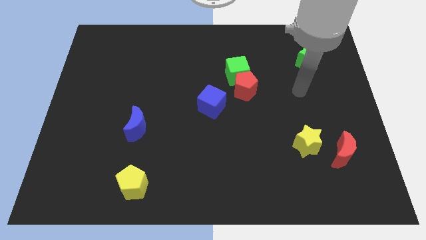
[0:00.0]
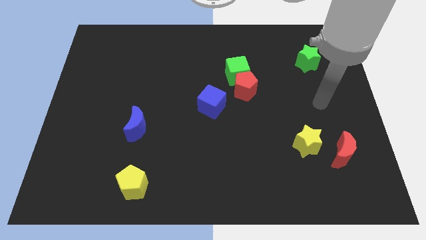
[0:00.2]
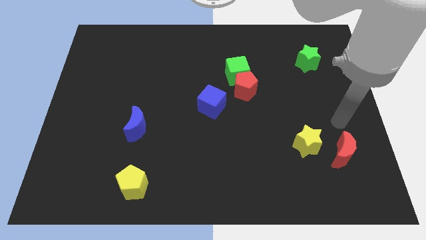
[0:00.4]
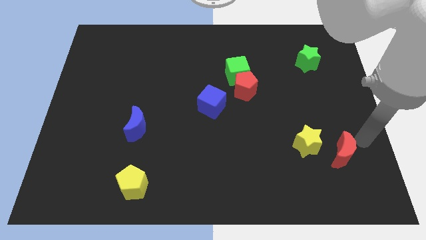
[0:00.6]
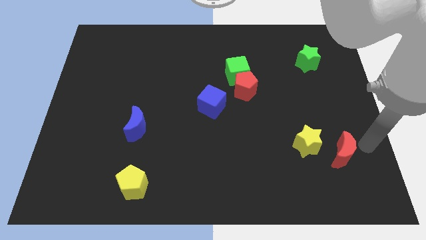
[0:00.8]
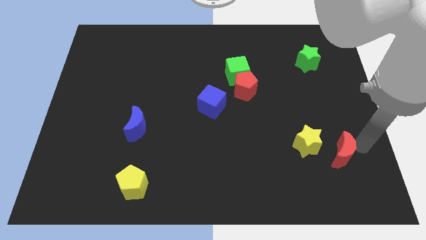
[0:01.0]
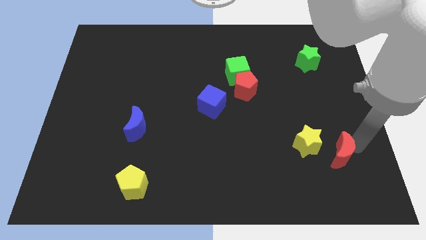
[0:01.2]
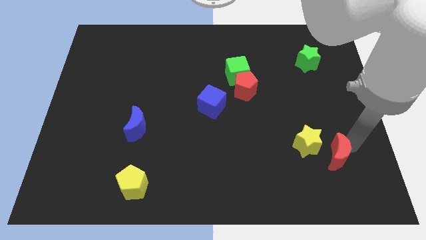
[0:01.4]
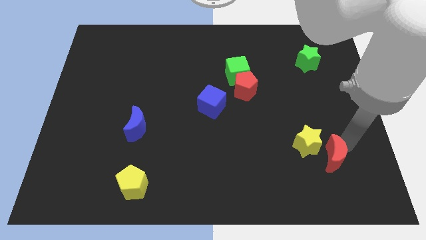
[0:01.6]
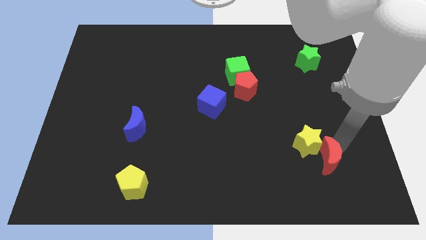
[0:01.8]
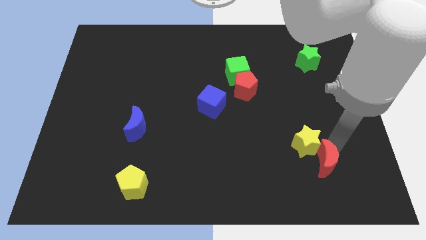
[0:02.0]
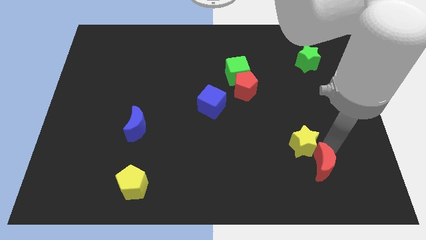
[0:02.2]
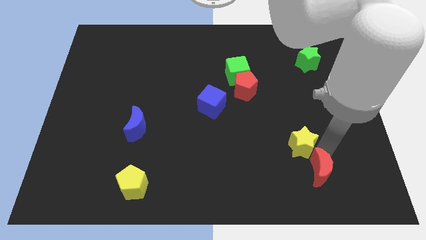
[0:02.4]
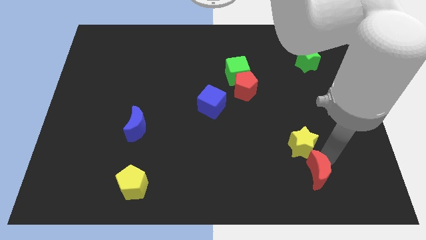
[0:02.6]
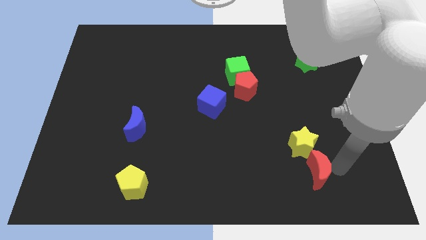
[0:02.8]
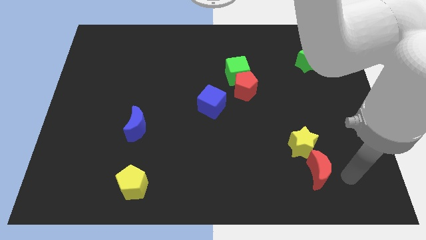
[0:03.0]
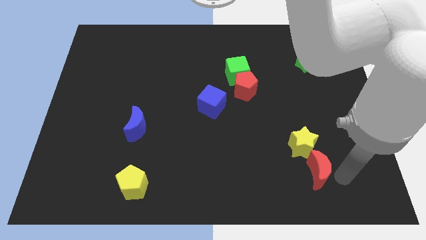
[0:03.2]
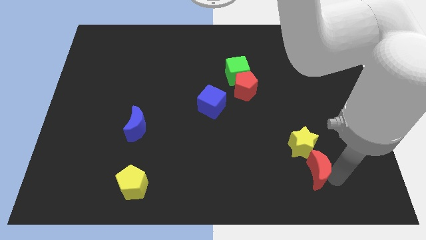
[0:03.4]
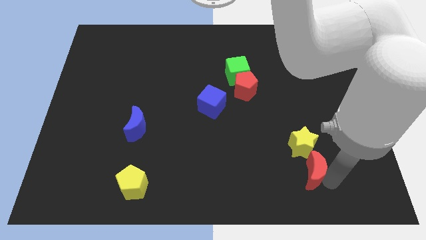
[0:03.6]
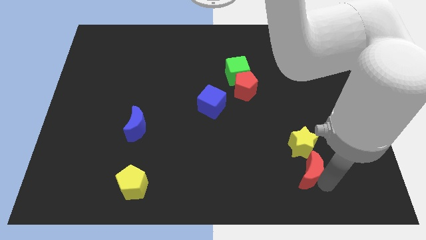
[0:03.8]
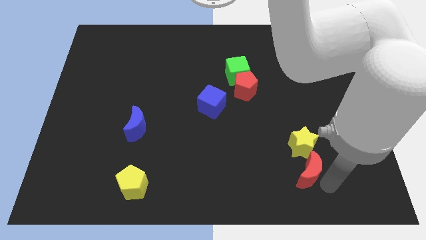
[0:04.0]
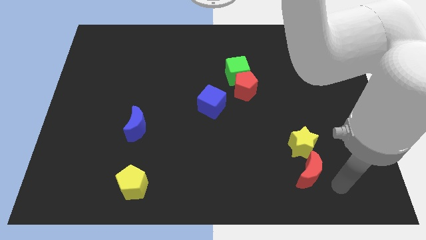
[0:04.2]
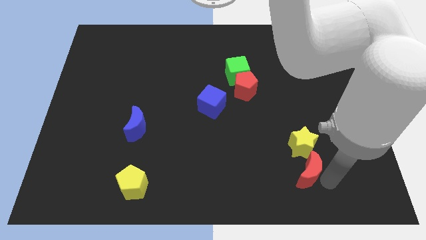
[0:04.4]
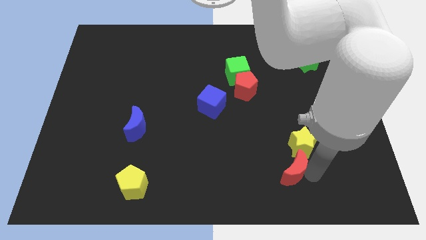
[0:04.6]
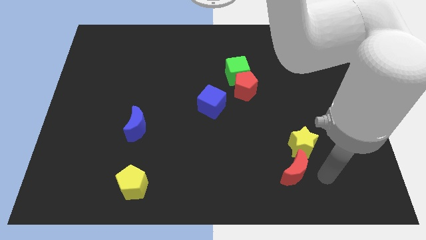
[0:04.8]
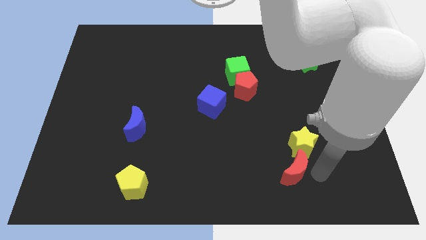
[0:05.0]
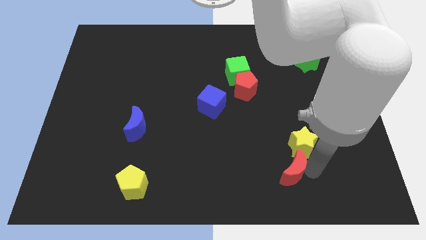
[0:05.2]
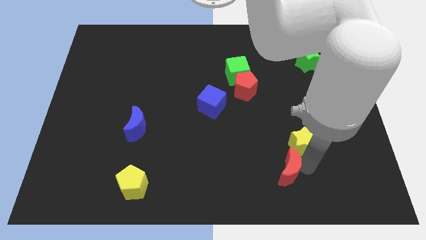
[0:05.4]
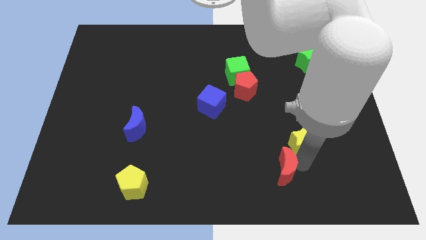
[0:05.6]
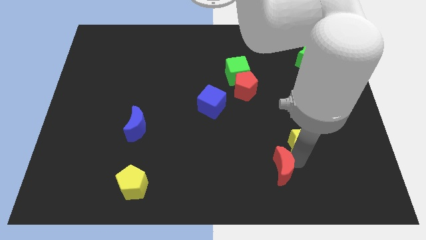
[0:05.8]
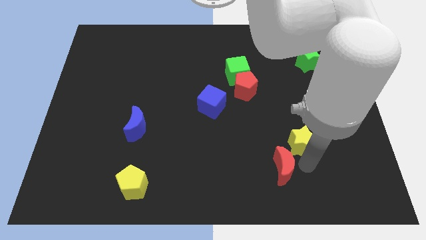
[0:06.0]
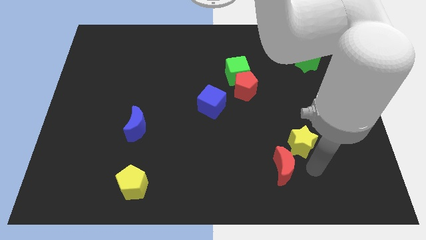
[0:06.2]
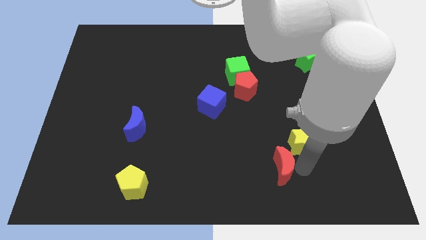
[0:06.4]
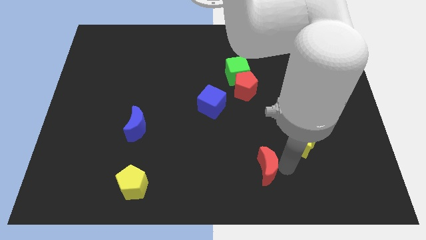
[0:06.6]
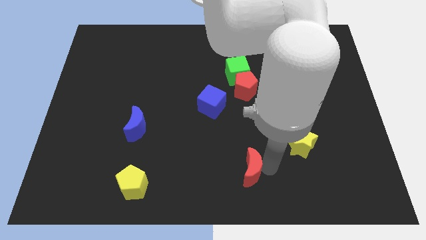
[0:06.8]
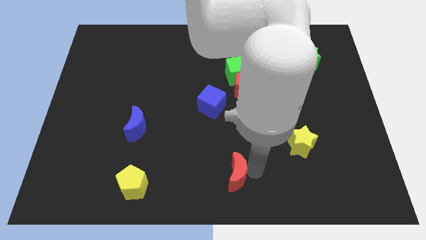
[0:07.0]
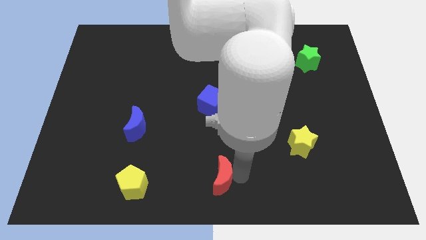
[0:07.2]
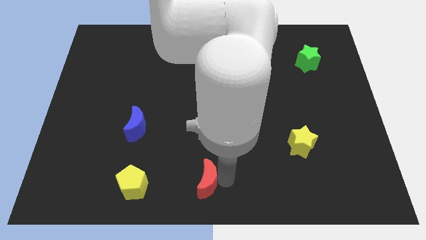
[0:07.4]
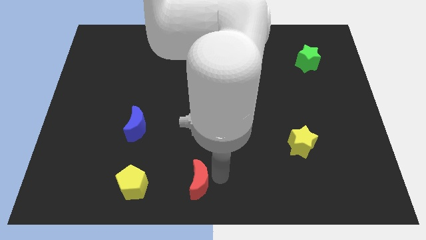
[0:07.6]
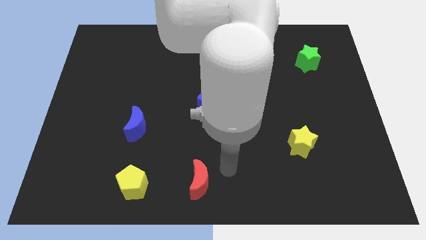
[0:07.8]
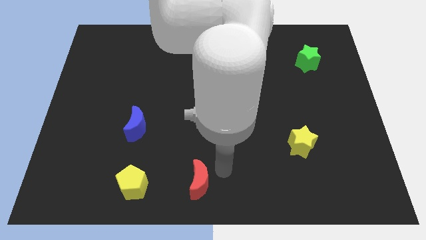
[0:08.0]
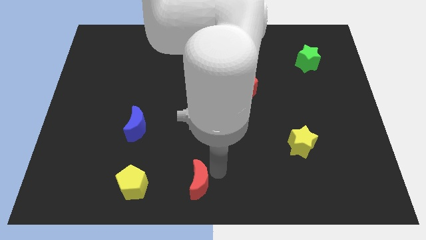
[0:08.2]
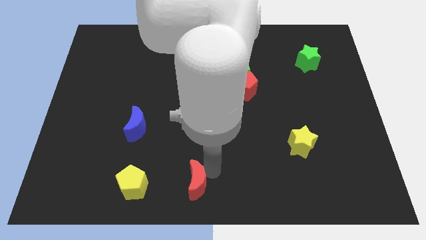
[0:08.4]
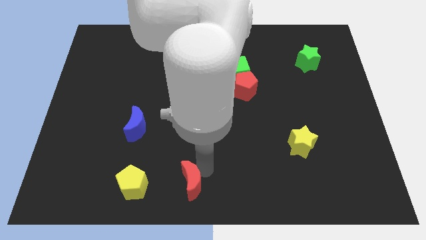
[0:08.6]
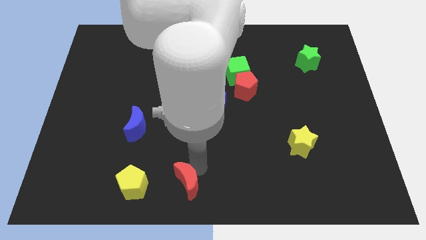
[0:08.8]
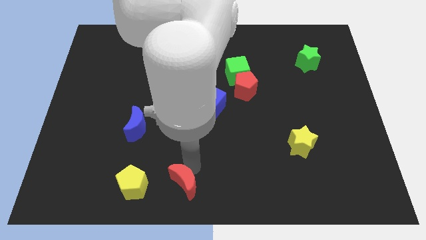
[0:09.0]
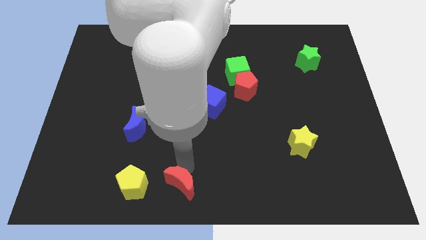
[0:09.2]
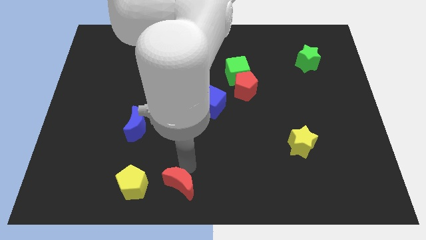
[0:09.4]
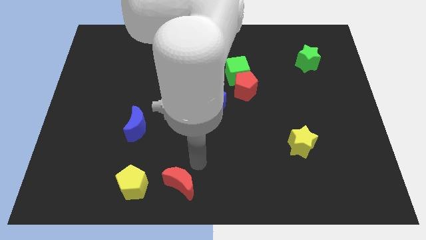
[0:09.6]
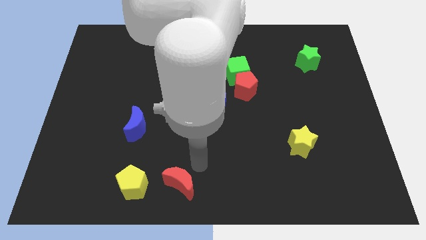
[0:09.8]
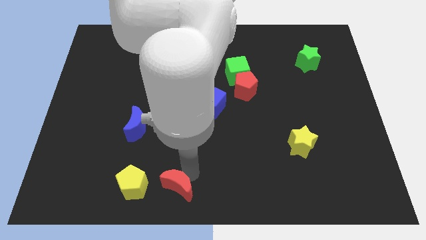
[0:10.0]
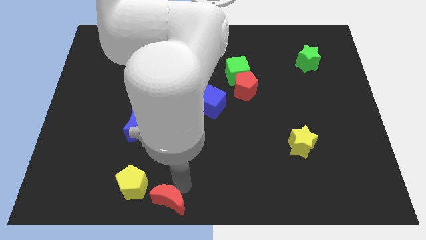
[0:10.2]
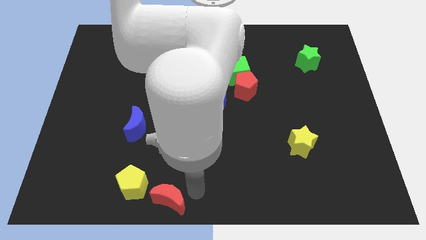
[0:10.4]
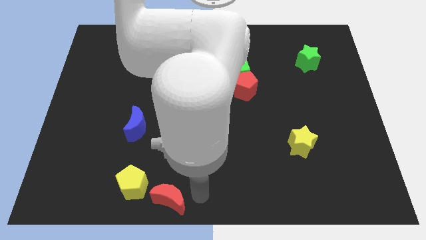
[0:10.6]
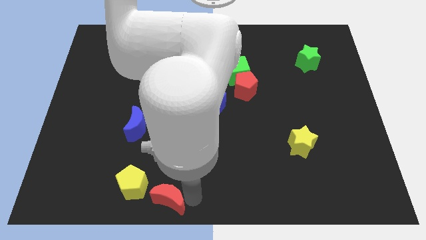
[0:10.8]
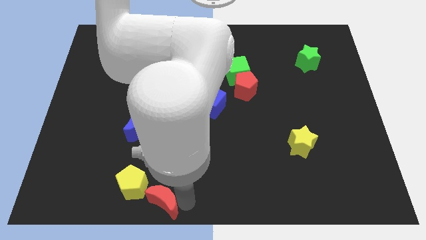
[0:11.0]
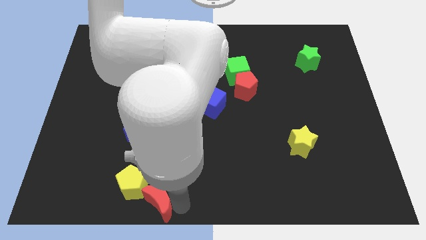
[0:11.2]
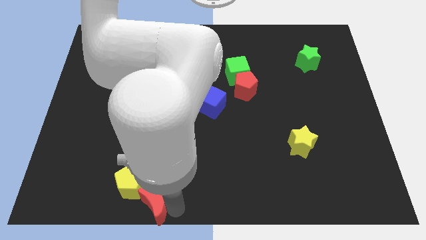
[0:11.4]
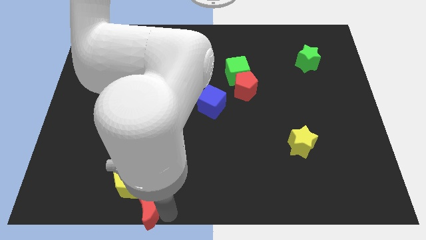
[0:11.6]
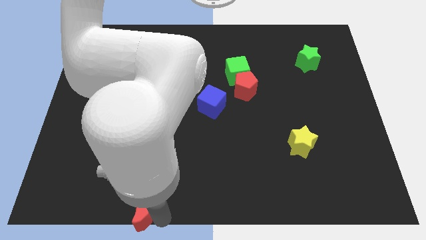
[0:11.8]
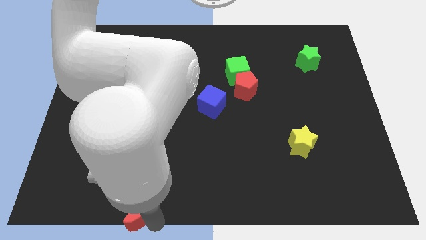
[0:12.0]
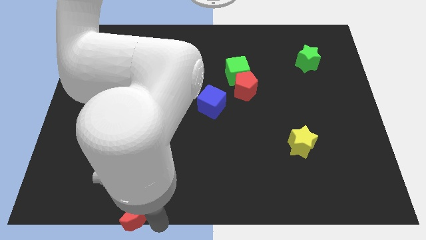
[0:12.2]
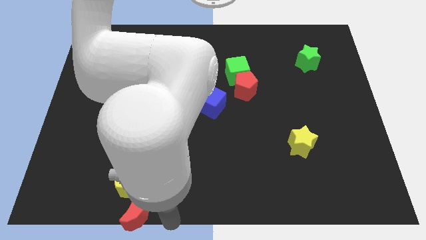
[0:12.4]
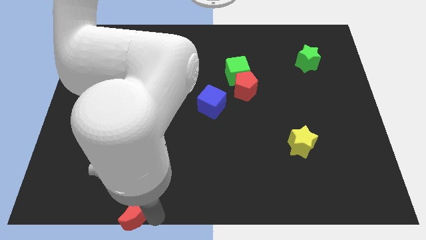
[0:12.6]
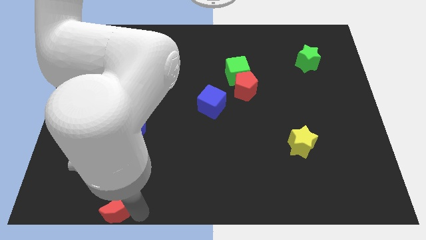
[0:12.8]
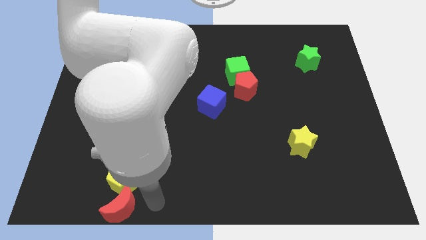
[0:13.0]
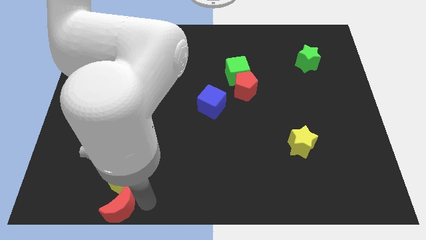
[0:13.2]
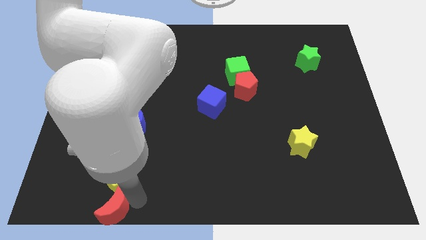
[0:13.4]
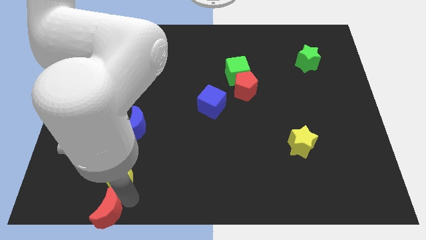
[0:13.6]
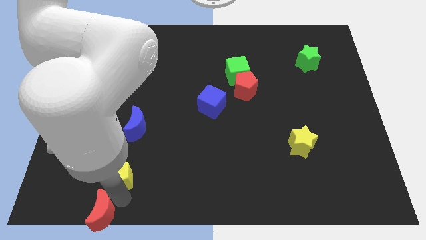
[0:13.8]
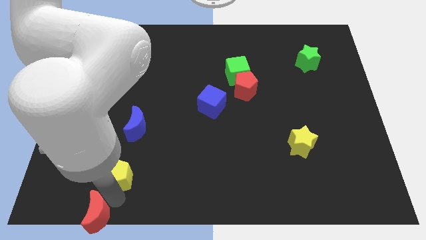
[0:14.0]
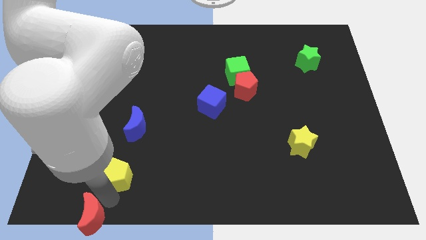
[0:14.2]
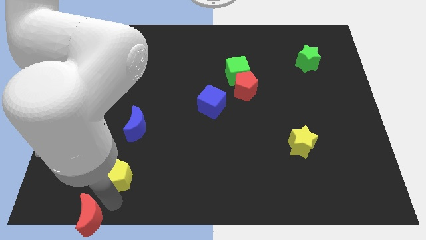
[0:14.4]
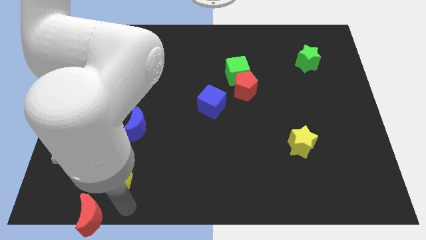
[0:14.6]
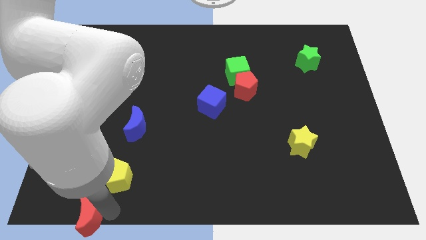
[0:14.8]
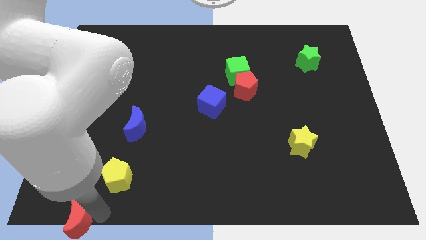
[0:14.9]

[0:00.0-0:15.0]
slide the red moon to the lower left corner
